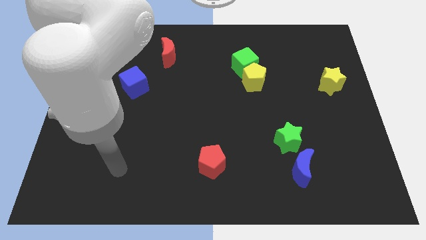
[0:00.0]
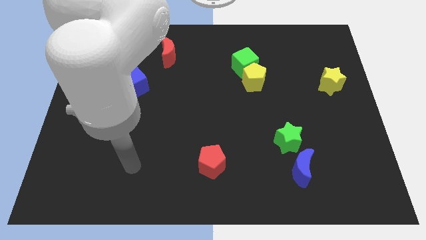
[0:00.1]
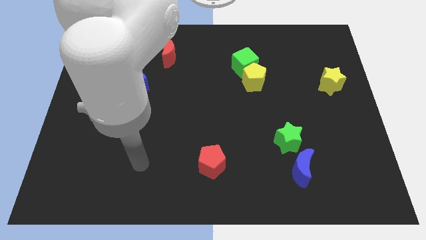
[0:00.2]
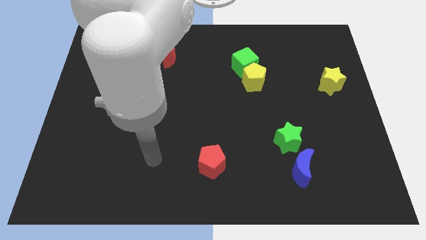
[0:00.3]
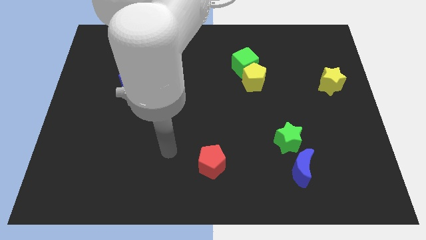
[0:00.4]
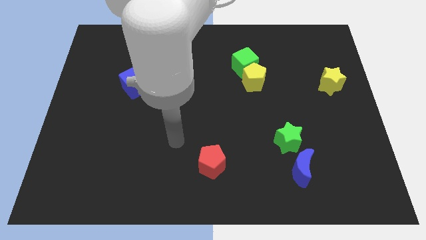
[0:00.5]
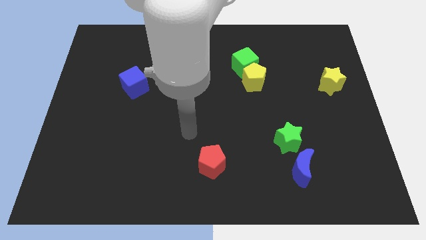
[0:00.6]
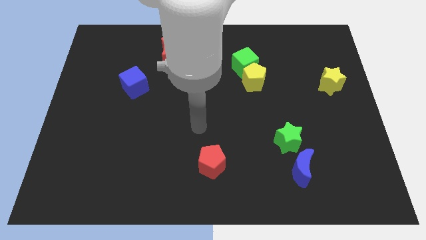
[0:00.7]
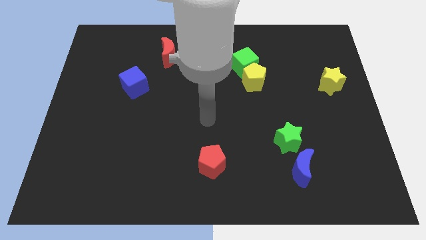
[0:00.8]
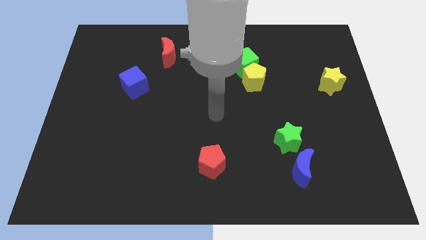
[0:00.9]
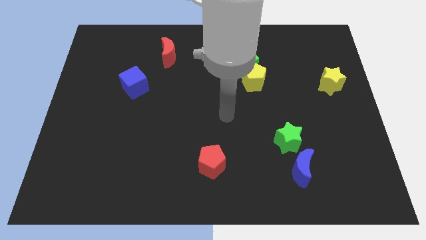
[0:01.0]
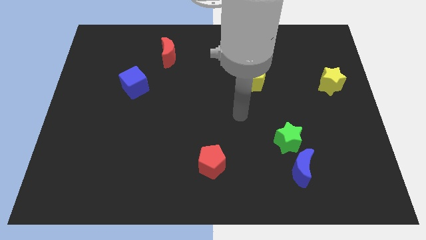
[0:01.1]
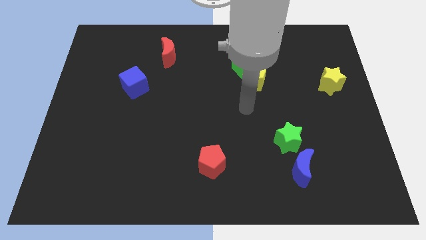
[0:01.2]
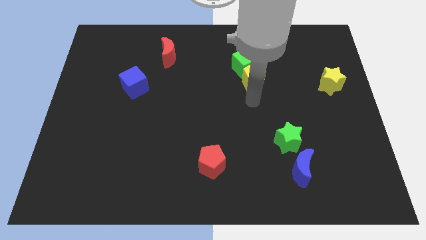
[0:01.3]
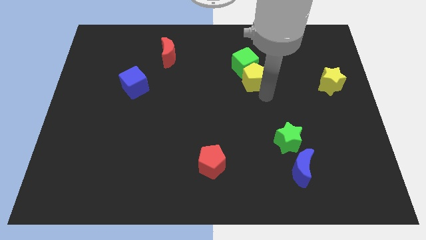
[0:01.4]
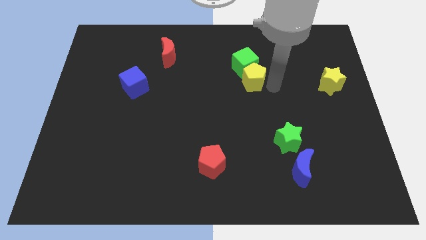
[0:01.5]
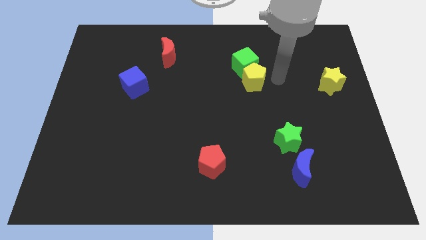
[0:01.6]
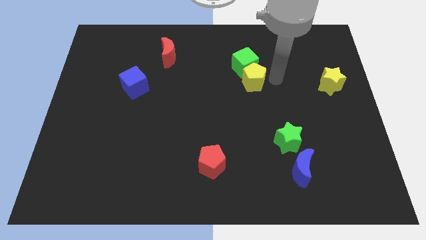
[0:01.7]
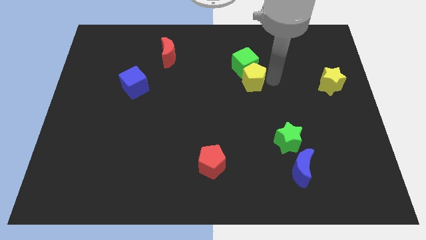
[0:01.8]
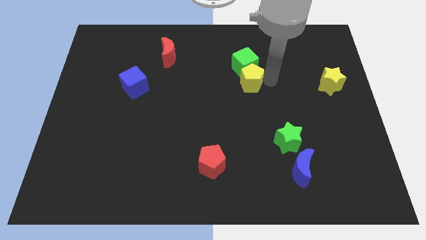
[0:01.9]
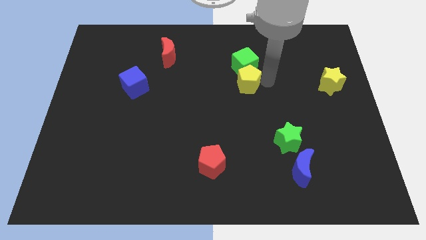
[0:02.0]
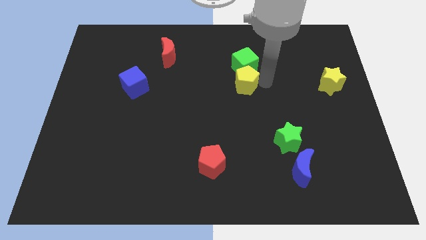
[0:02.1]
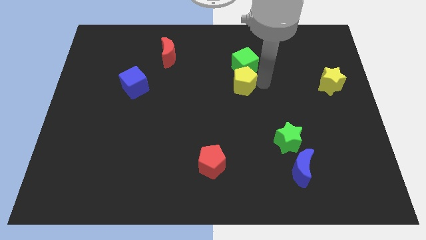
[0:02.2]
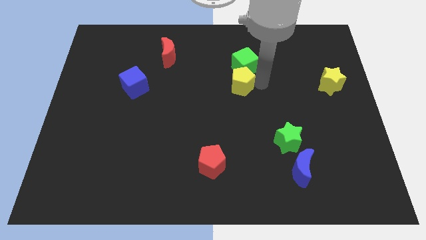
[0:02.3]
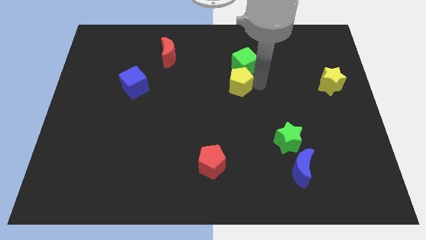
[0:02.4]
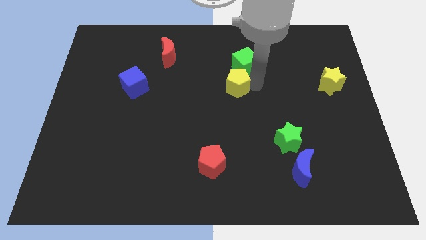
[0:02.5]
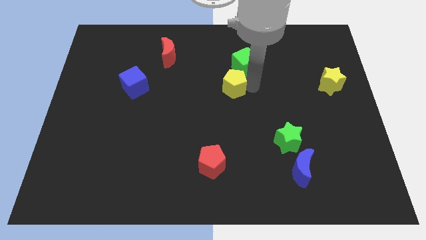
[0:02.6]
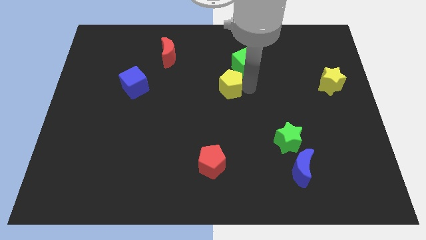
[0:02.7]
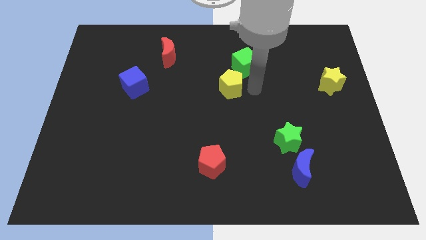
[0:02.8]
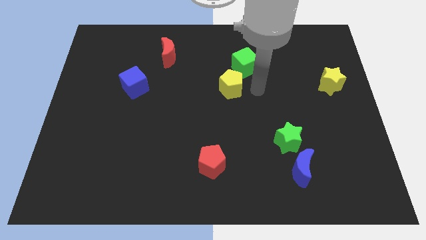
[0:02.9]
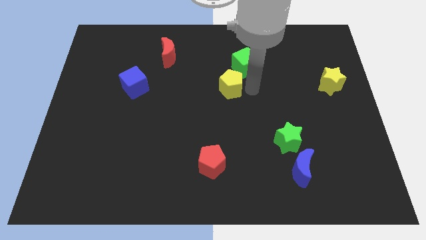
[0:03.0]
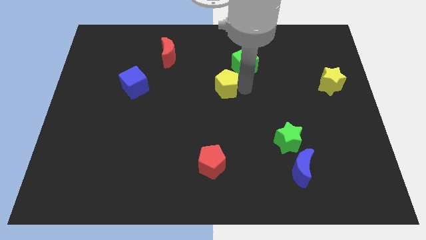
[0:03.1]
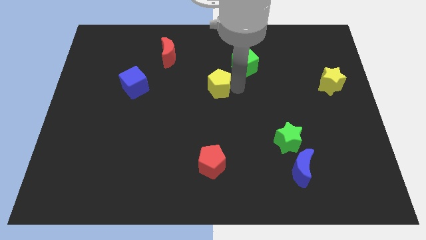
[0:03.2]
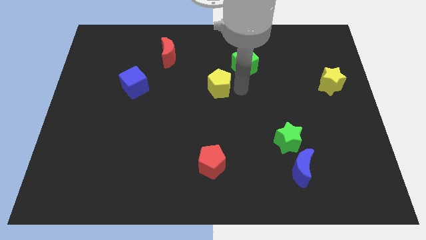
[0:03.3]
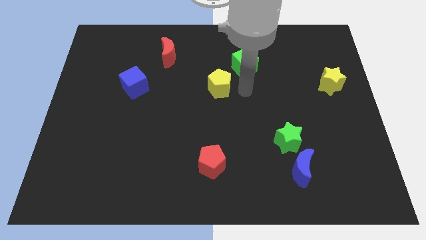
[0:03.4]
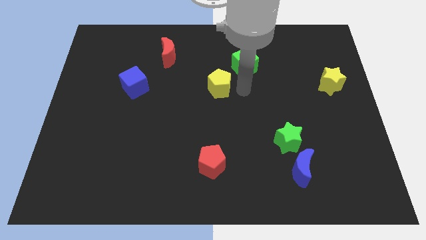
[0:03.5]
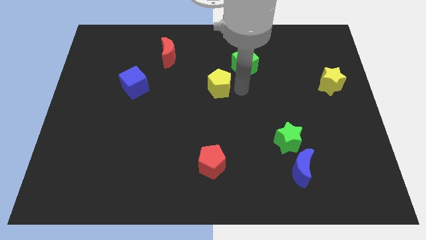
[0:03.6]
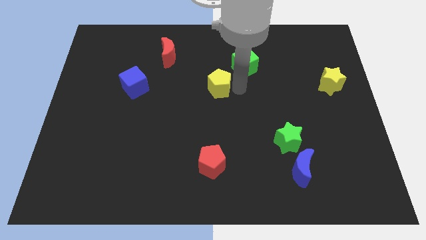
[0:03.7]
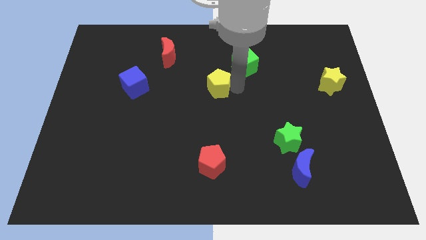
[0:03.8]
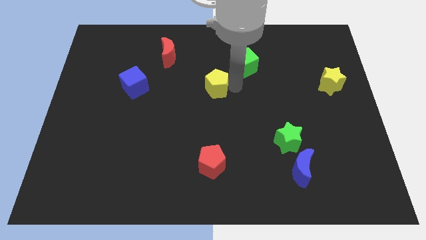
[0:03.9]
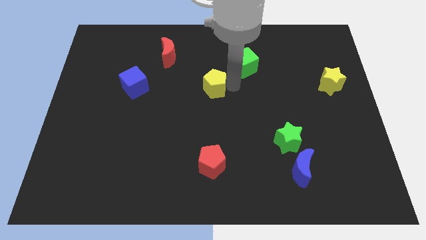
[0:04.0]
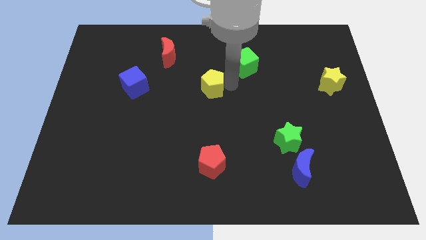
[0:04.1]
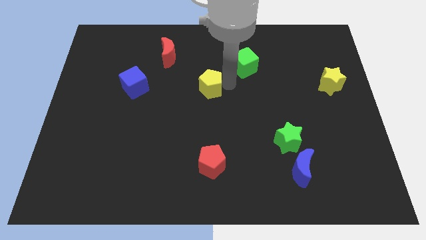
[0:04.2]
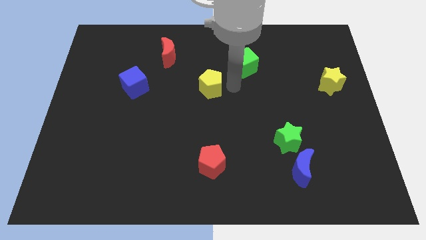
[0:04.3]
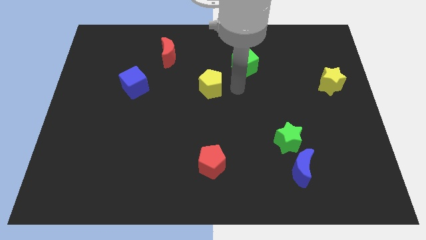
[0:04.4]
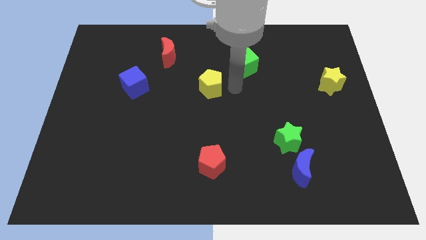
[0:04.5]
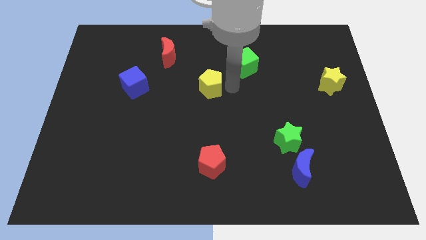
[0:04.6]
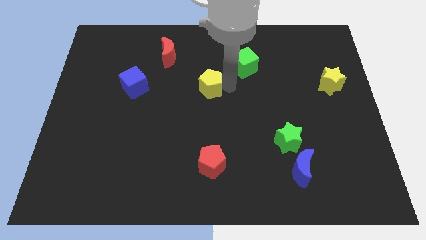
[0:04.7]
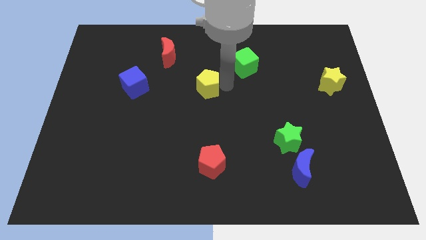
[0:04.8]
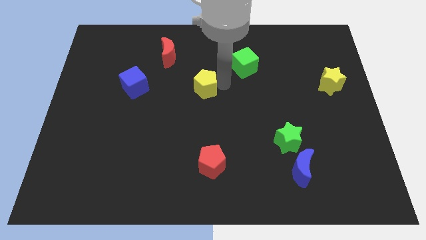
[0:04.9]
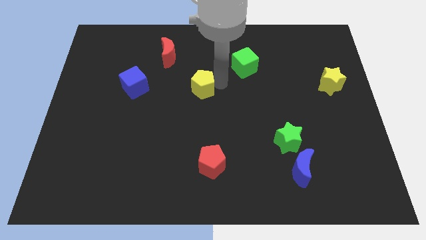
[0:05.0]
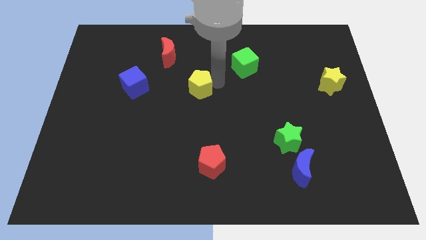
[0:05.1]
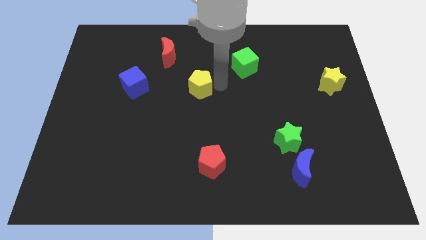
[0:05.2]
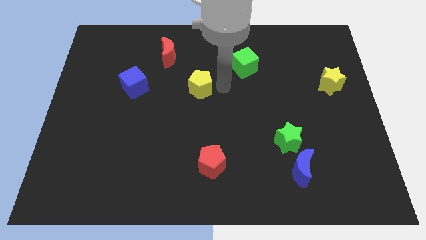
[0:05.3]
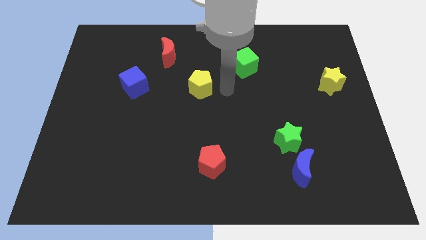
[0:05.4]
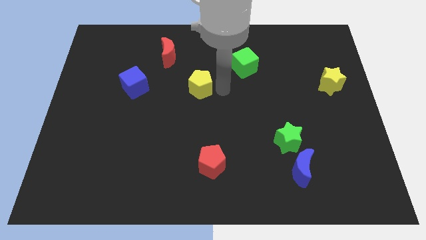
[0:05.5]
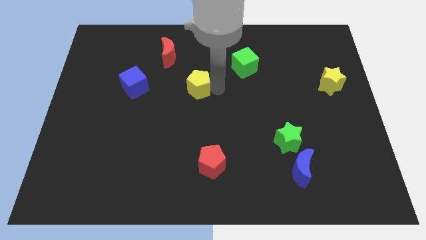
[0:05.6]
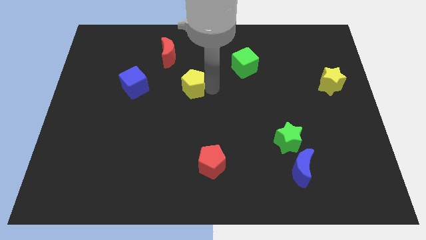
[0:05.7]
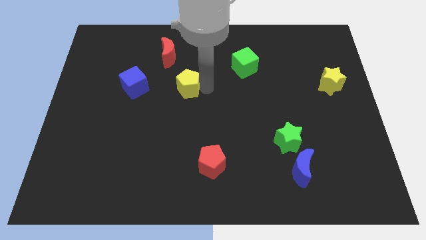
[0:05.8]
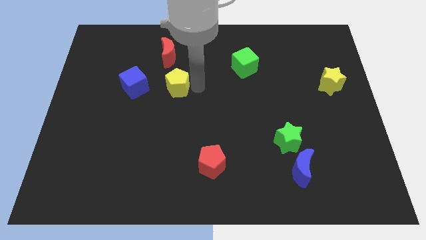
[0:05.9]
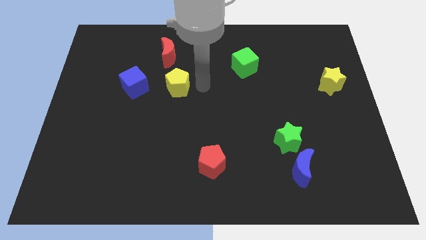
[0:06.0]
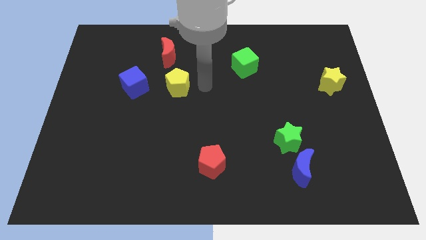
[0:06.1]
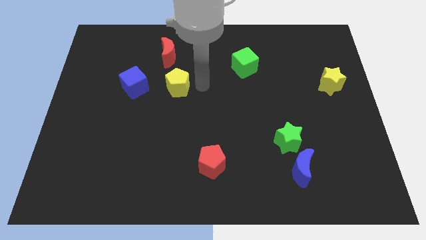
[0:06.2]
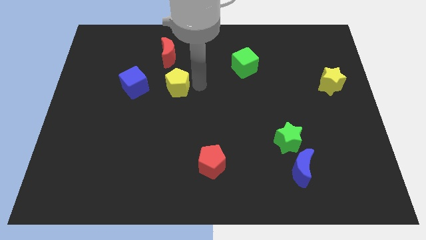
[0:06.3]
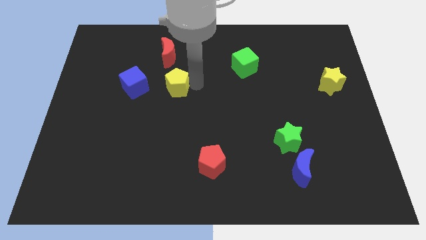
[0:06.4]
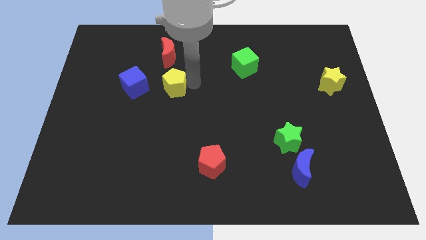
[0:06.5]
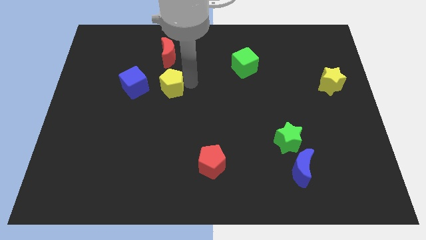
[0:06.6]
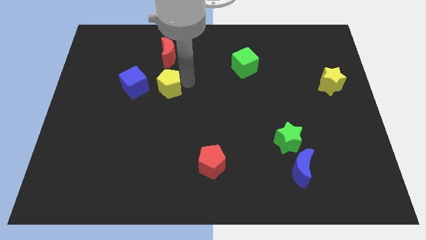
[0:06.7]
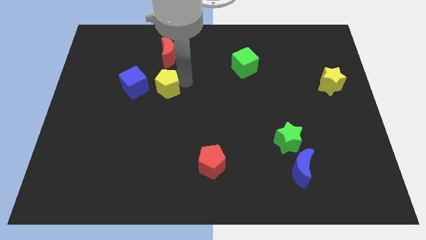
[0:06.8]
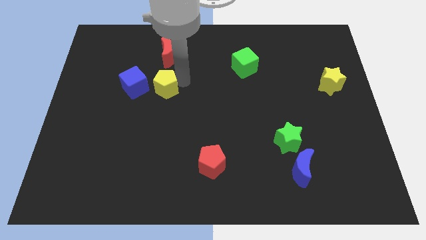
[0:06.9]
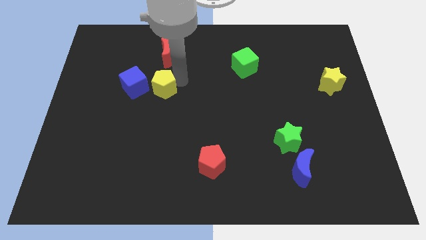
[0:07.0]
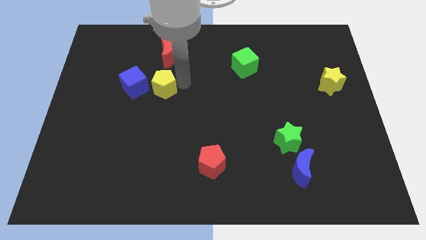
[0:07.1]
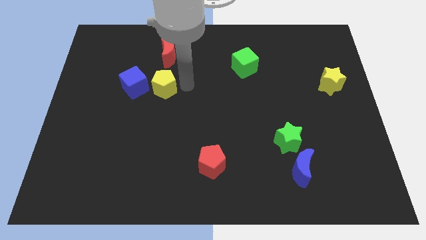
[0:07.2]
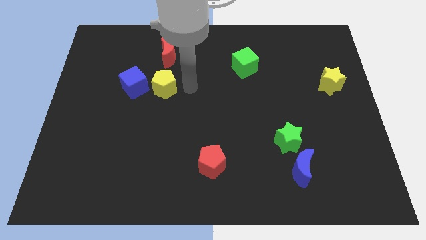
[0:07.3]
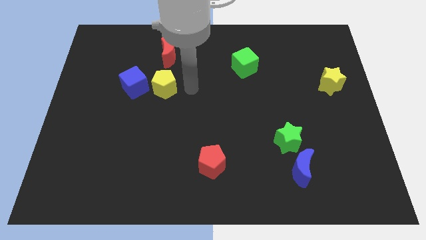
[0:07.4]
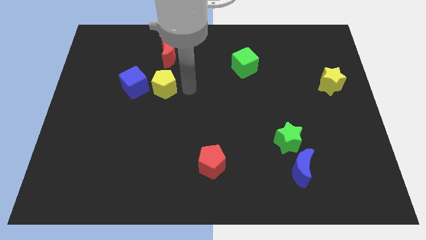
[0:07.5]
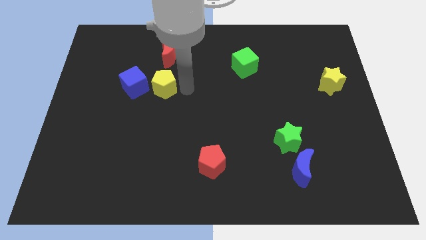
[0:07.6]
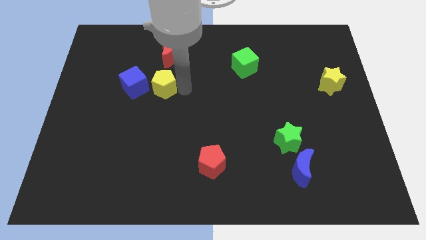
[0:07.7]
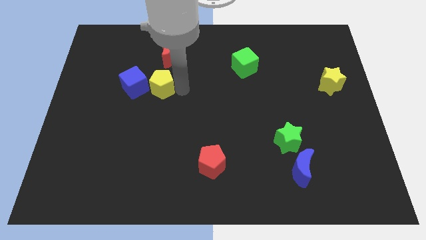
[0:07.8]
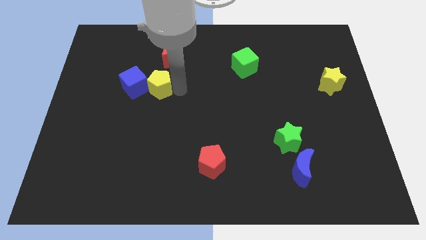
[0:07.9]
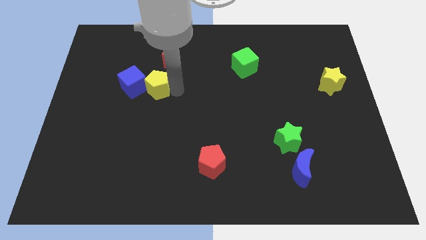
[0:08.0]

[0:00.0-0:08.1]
move the yellow pentagon to the blue cube
